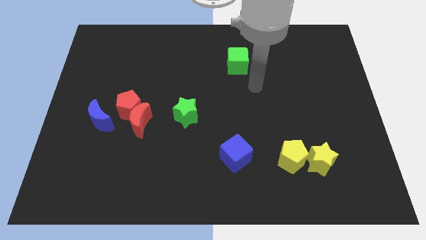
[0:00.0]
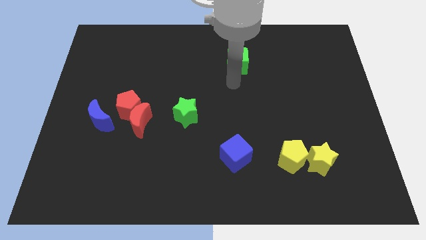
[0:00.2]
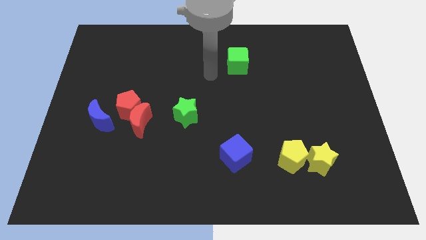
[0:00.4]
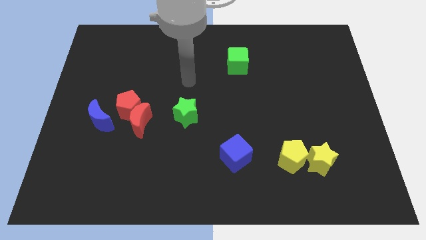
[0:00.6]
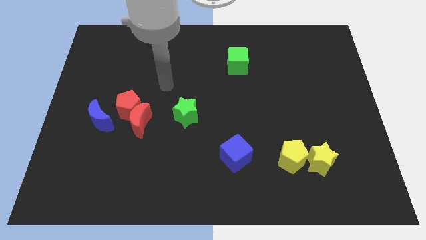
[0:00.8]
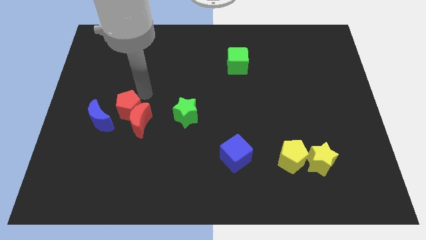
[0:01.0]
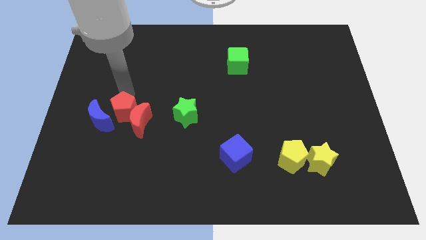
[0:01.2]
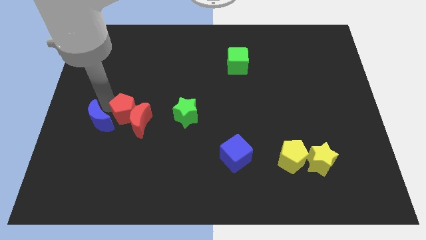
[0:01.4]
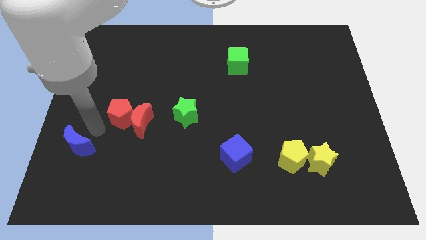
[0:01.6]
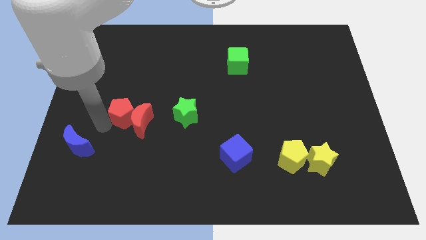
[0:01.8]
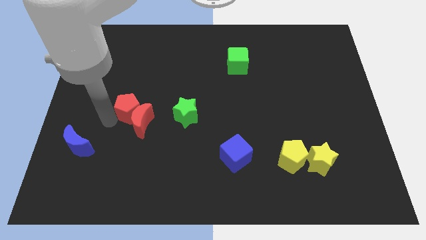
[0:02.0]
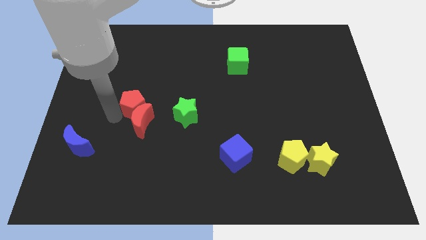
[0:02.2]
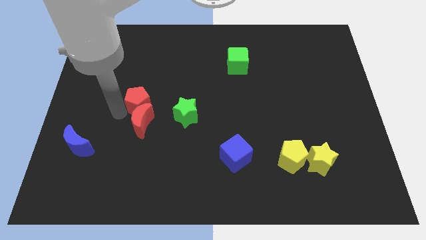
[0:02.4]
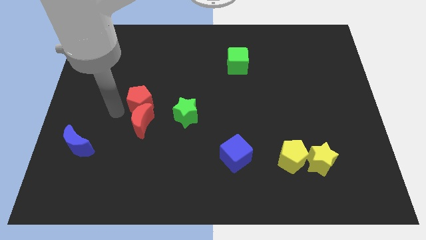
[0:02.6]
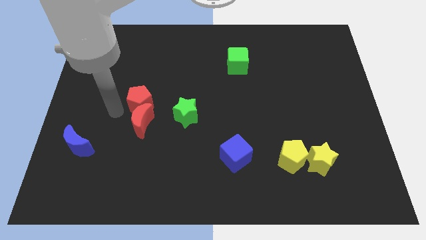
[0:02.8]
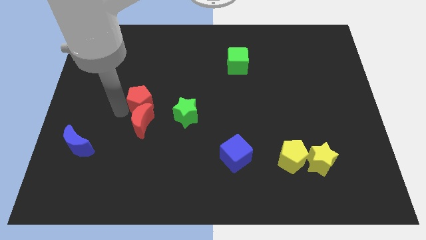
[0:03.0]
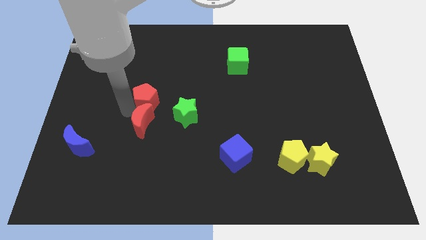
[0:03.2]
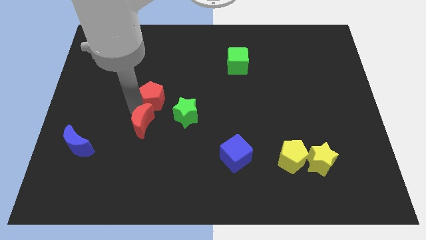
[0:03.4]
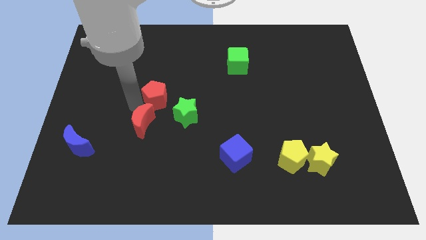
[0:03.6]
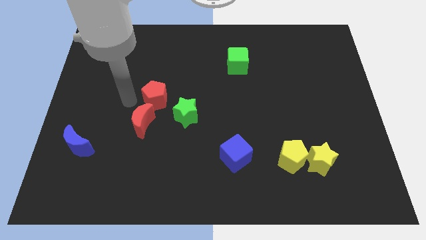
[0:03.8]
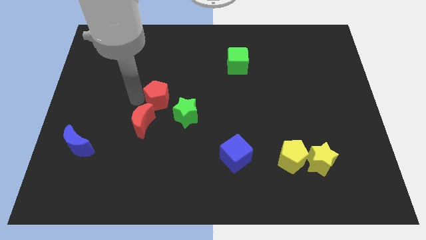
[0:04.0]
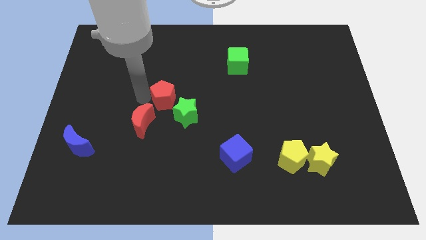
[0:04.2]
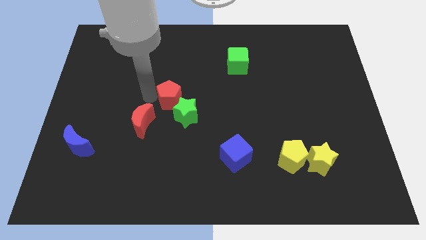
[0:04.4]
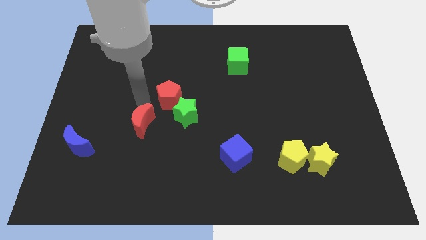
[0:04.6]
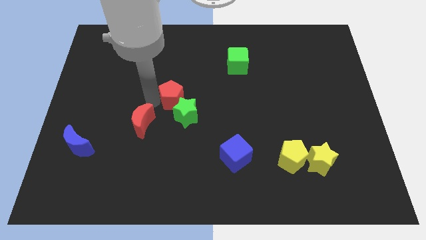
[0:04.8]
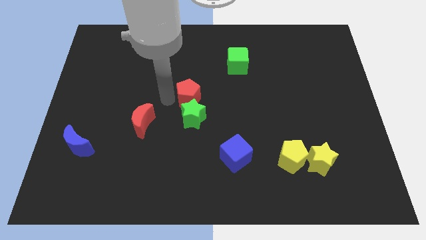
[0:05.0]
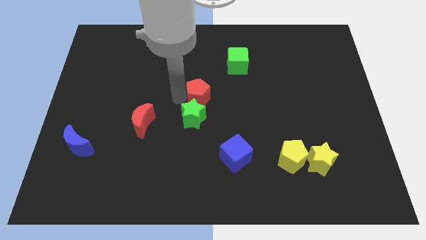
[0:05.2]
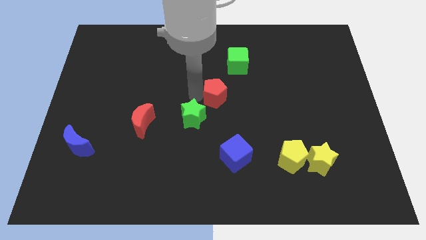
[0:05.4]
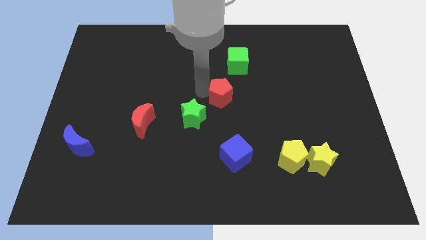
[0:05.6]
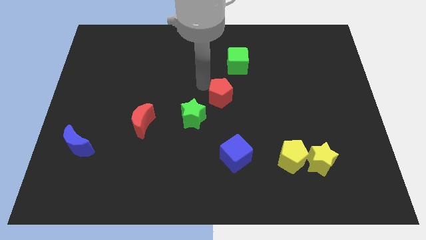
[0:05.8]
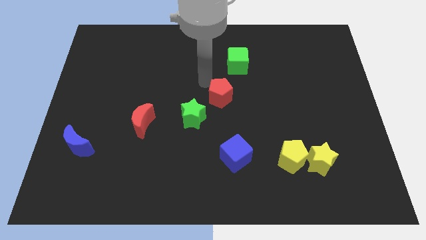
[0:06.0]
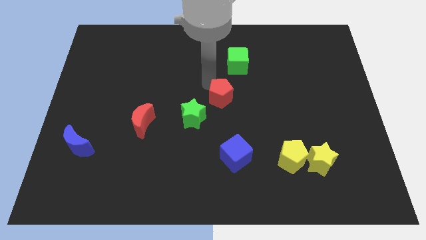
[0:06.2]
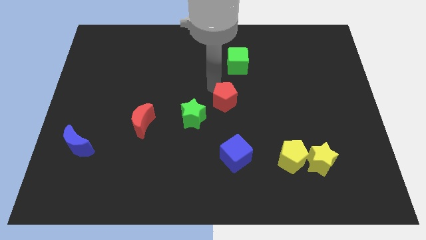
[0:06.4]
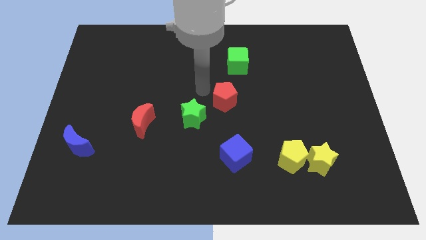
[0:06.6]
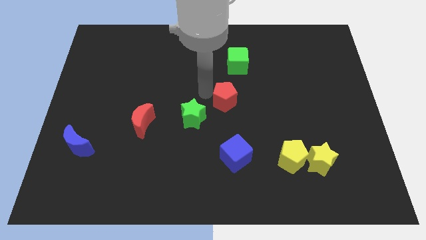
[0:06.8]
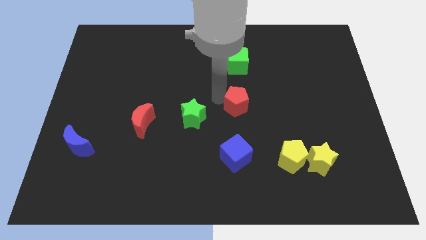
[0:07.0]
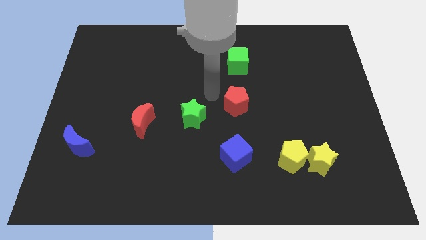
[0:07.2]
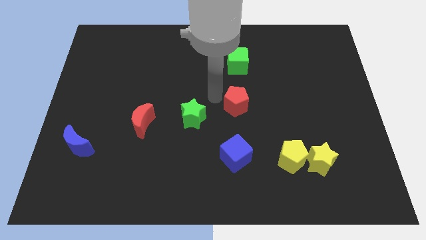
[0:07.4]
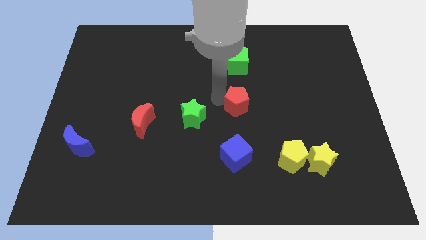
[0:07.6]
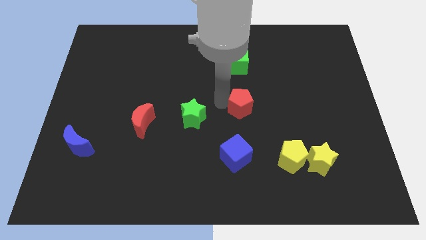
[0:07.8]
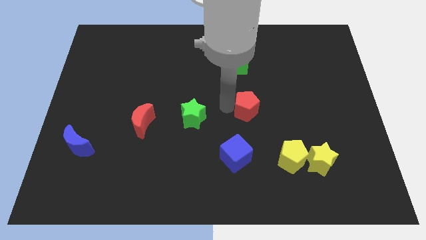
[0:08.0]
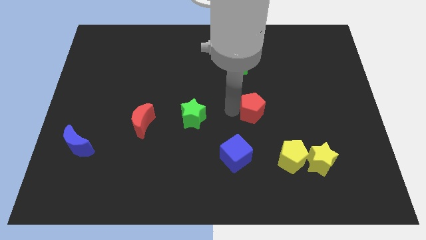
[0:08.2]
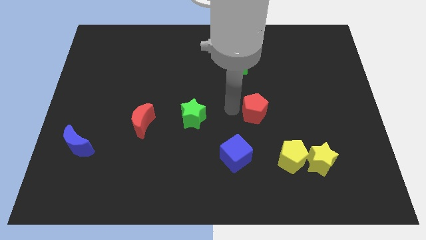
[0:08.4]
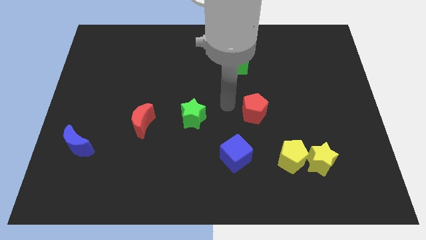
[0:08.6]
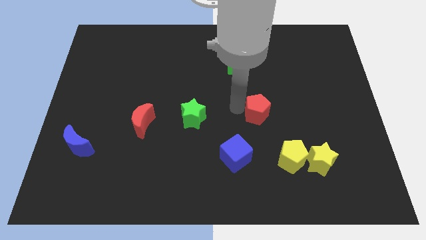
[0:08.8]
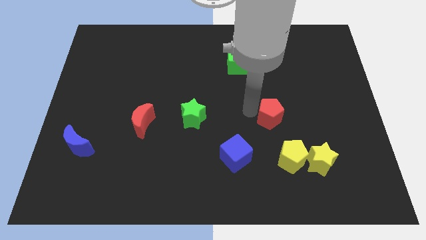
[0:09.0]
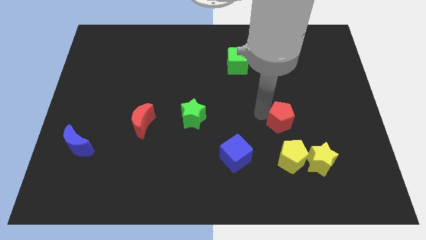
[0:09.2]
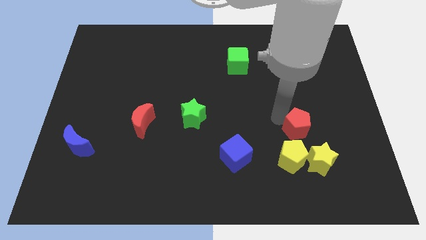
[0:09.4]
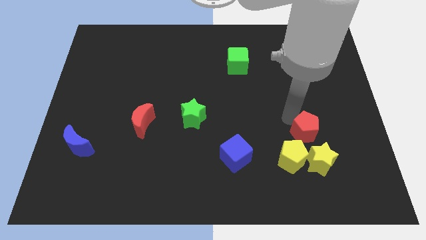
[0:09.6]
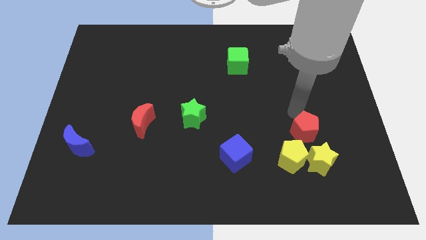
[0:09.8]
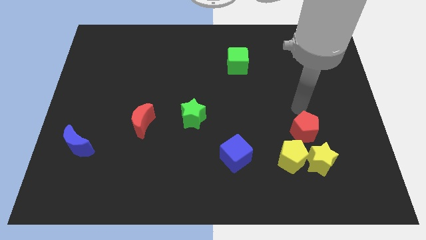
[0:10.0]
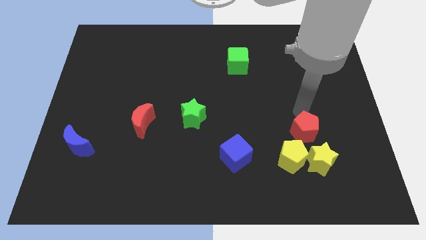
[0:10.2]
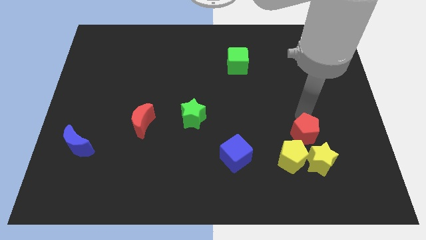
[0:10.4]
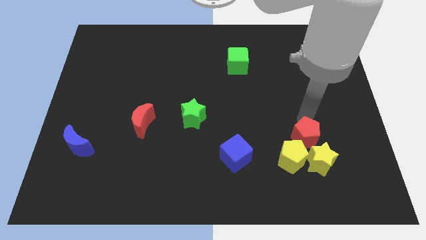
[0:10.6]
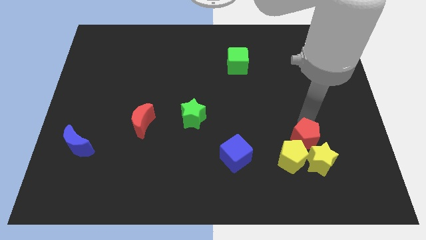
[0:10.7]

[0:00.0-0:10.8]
slide the red pentagon next to the yellow star

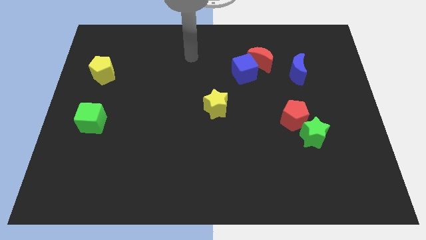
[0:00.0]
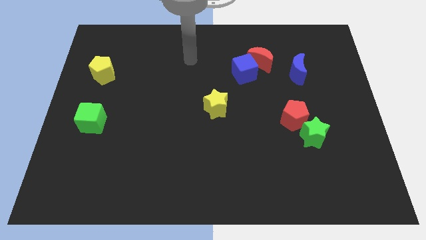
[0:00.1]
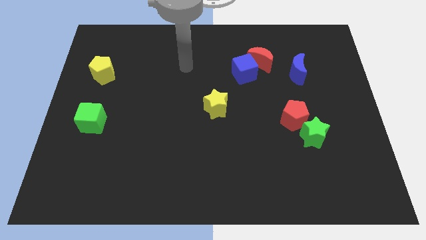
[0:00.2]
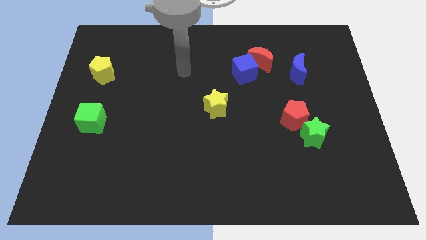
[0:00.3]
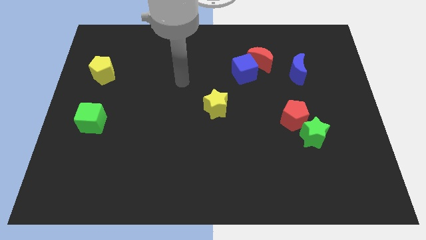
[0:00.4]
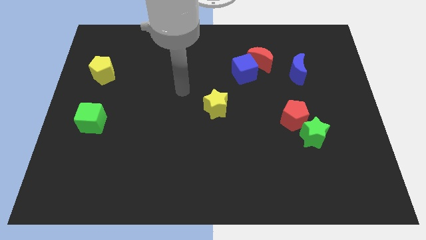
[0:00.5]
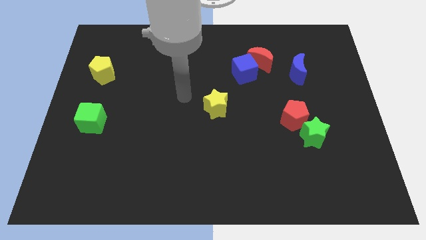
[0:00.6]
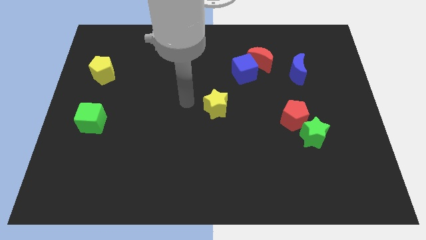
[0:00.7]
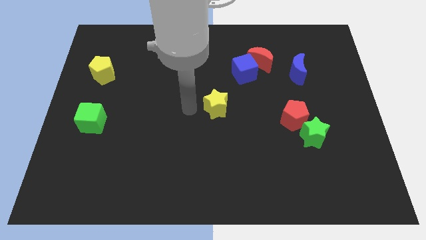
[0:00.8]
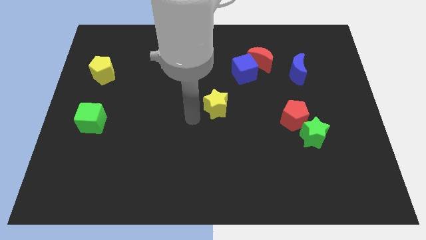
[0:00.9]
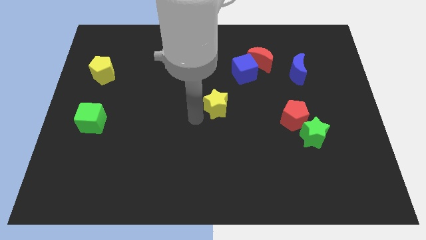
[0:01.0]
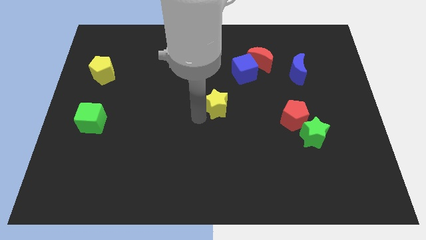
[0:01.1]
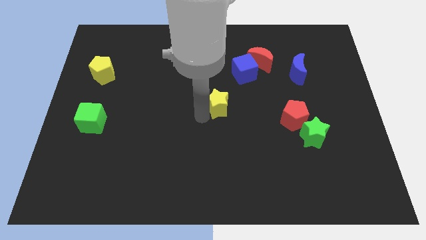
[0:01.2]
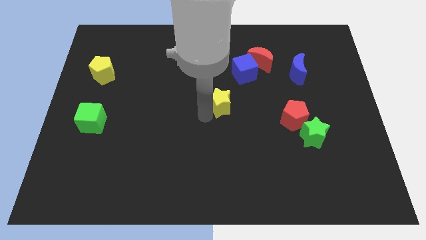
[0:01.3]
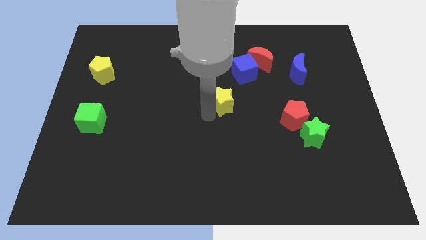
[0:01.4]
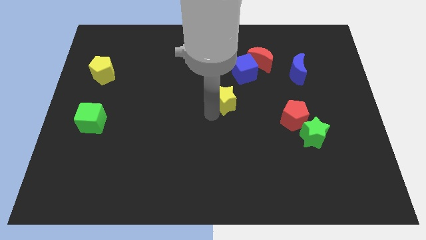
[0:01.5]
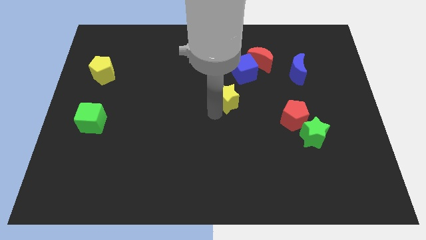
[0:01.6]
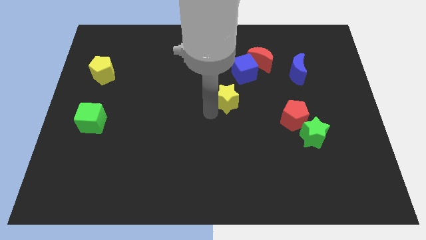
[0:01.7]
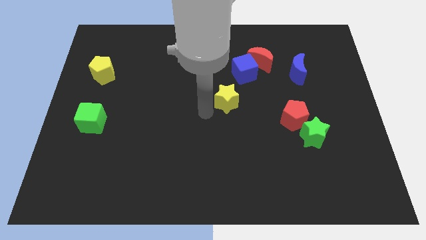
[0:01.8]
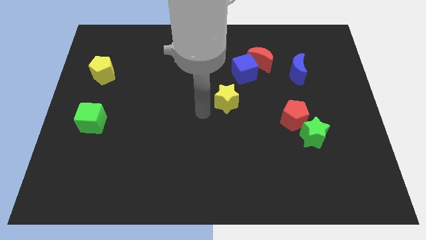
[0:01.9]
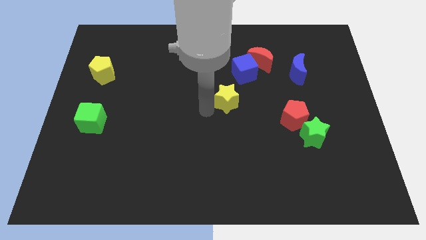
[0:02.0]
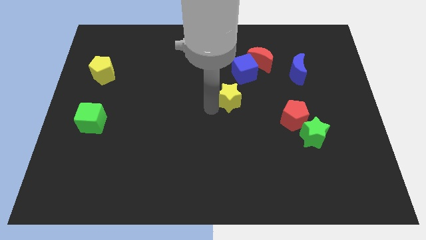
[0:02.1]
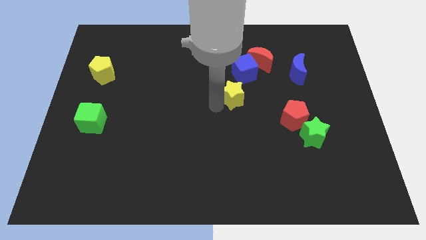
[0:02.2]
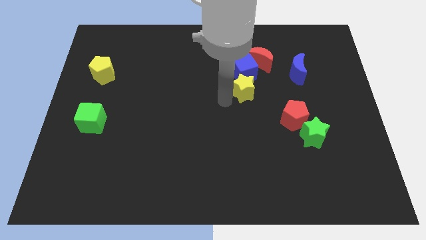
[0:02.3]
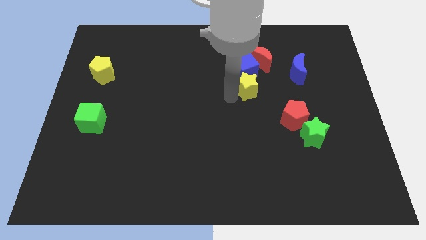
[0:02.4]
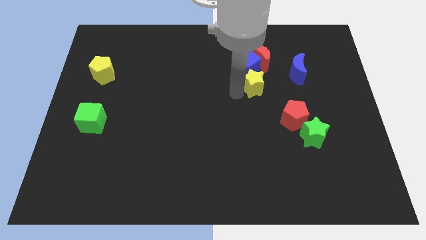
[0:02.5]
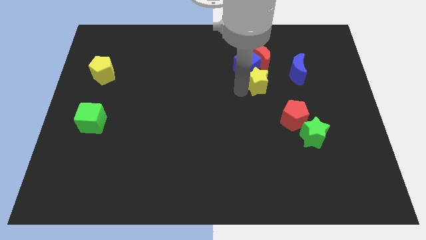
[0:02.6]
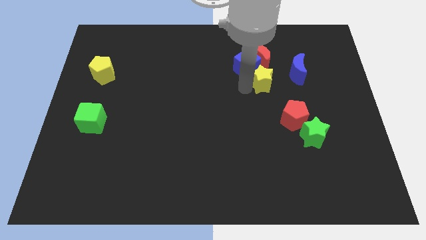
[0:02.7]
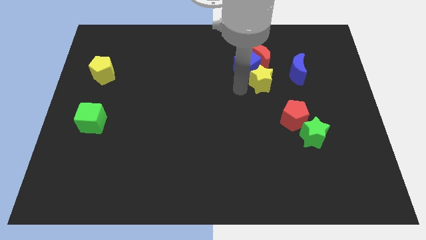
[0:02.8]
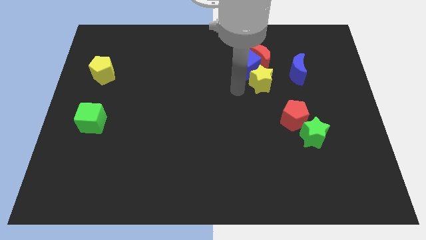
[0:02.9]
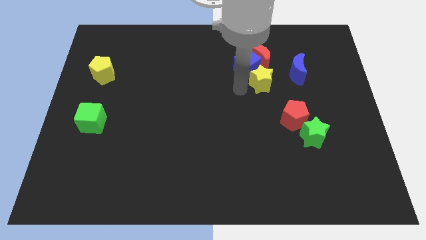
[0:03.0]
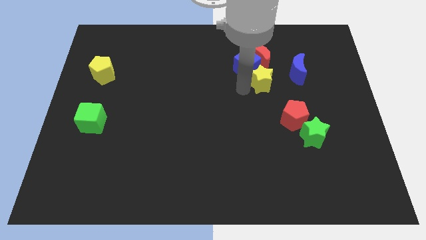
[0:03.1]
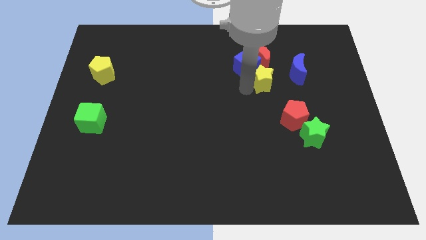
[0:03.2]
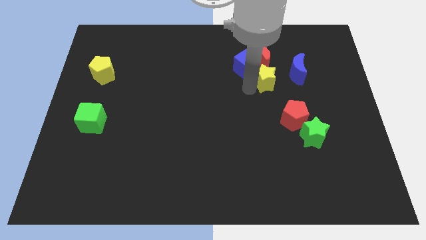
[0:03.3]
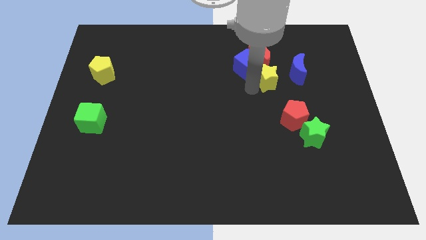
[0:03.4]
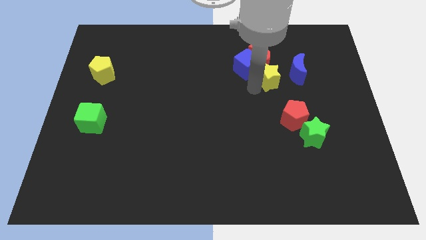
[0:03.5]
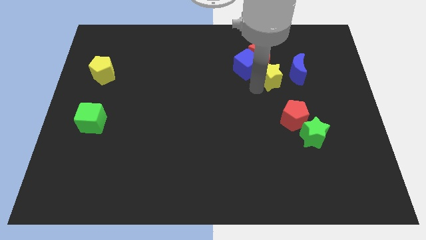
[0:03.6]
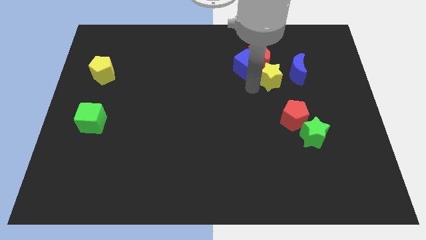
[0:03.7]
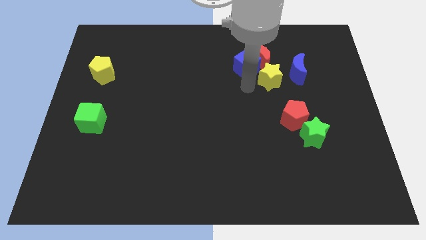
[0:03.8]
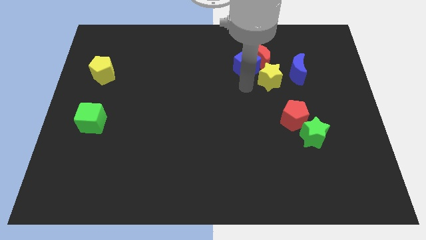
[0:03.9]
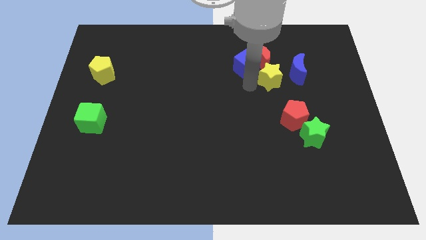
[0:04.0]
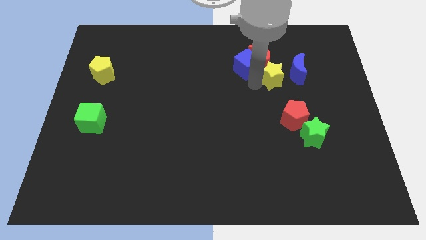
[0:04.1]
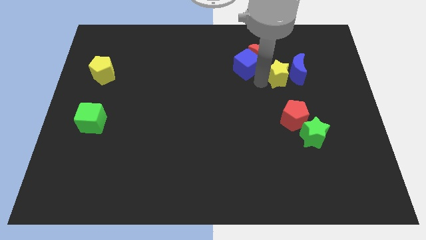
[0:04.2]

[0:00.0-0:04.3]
put the yellow star close to the blue moon
